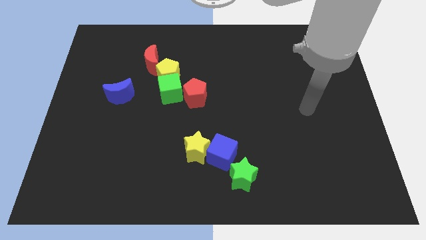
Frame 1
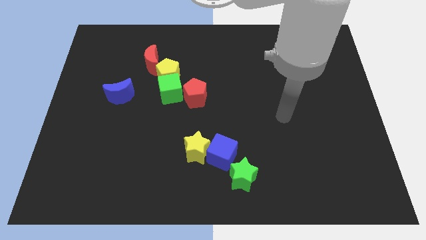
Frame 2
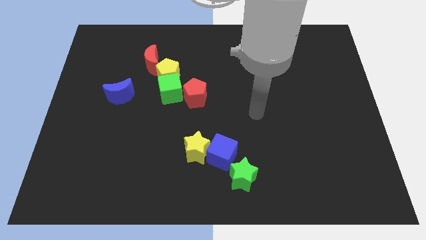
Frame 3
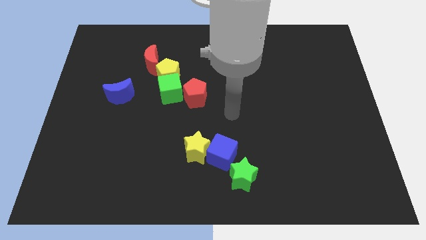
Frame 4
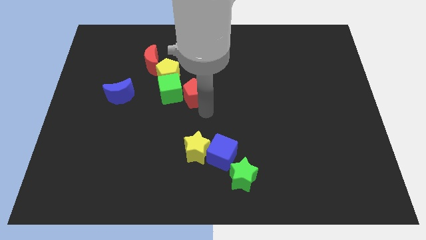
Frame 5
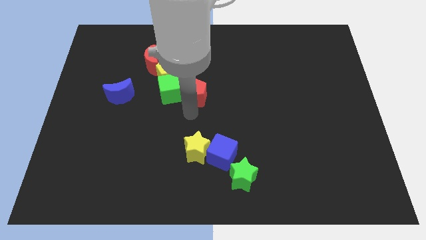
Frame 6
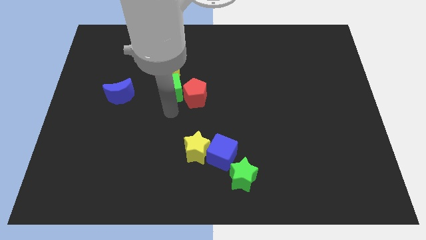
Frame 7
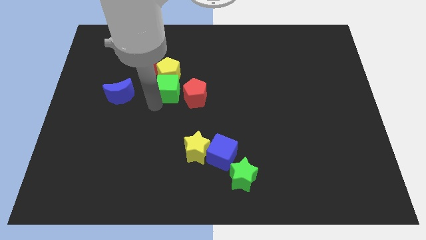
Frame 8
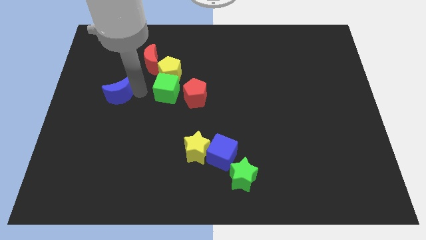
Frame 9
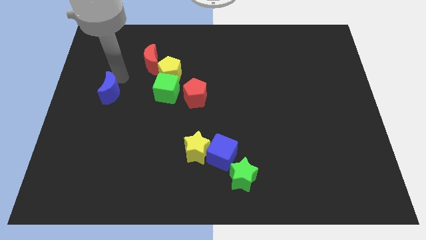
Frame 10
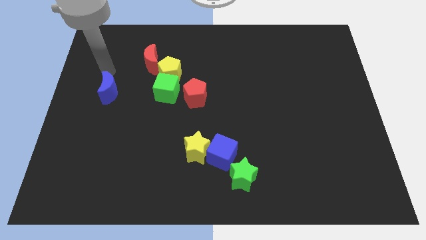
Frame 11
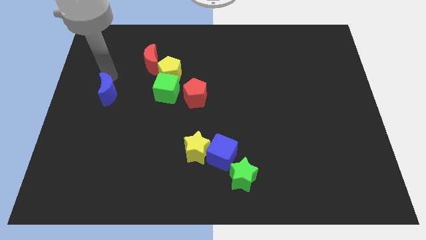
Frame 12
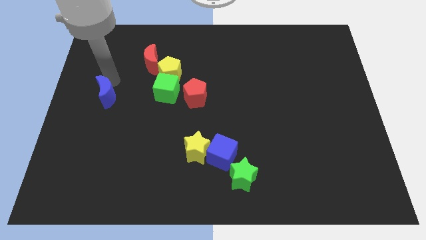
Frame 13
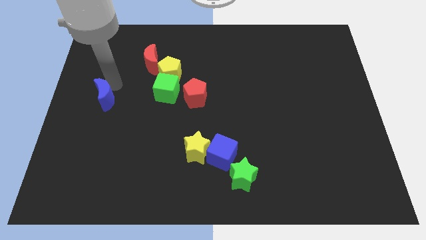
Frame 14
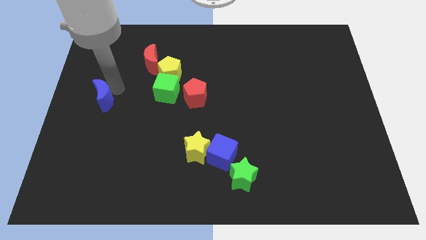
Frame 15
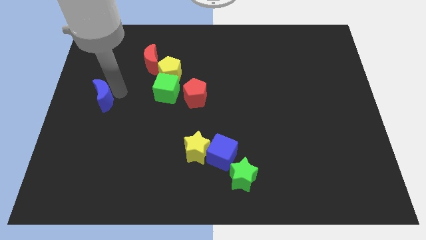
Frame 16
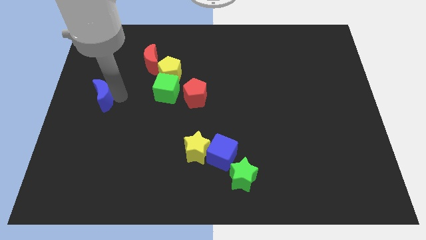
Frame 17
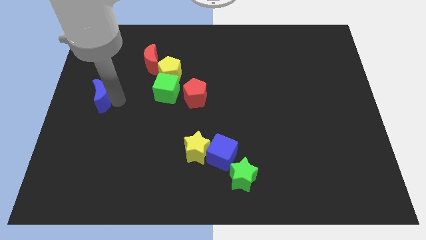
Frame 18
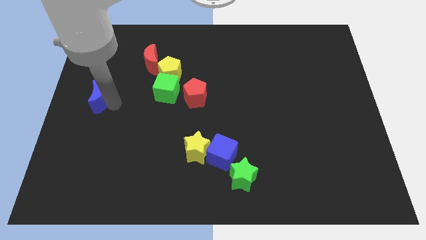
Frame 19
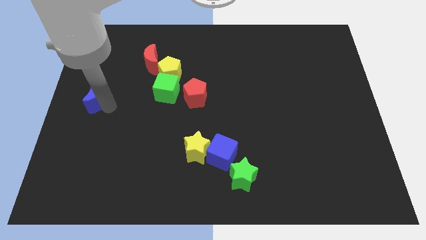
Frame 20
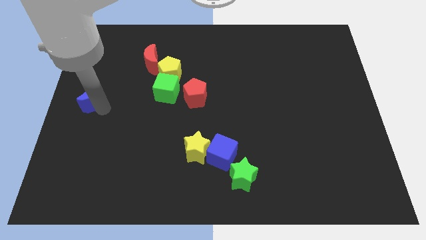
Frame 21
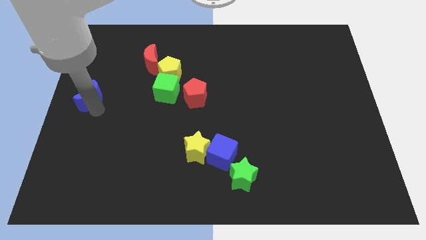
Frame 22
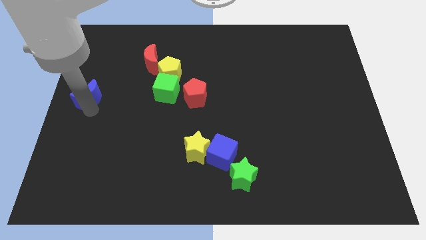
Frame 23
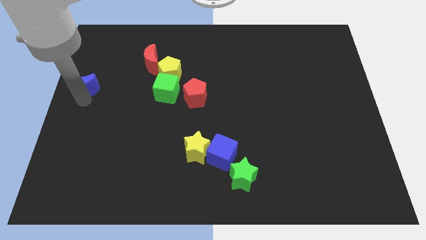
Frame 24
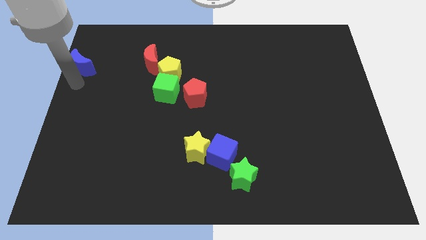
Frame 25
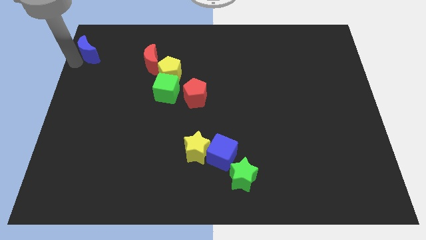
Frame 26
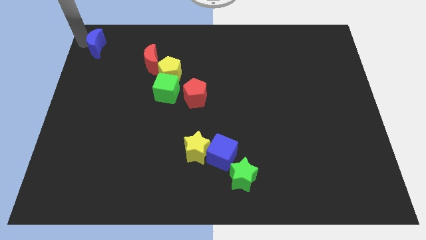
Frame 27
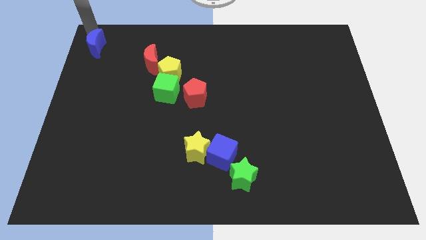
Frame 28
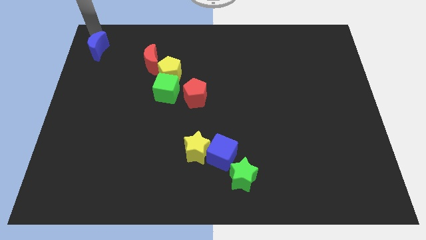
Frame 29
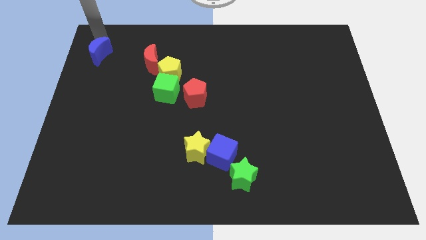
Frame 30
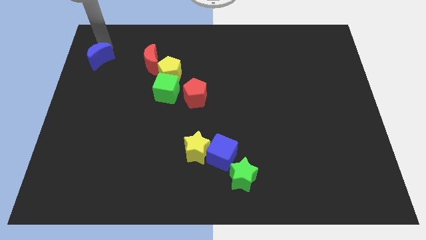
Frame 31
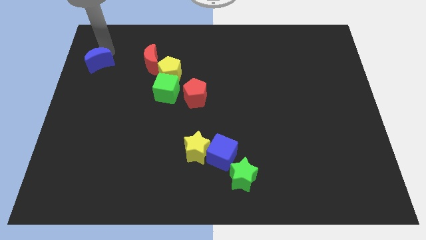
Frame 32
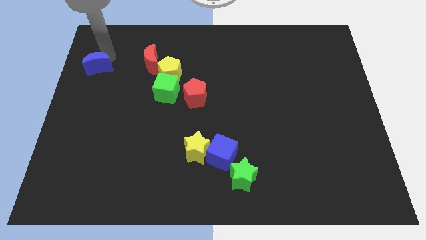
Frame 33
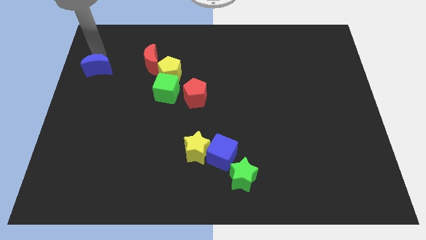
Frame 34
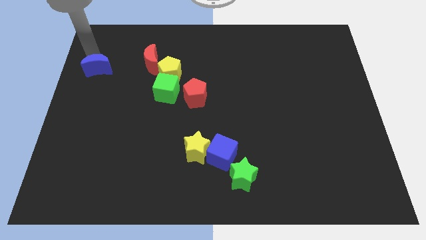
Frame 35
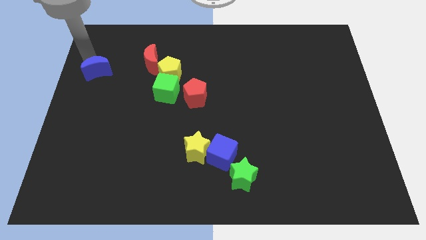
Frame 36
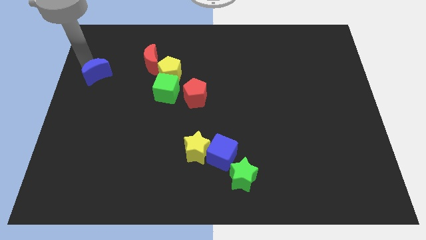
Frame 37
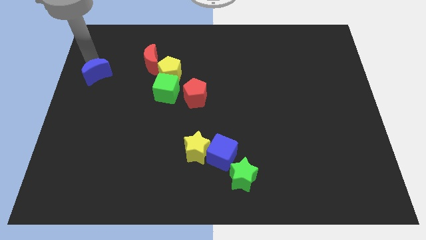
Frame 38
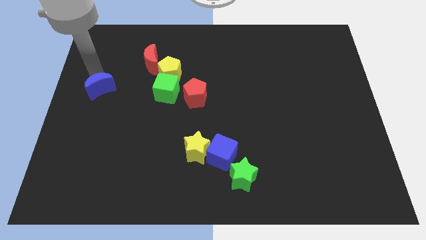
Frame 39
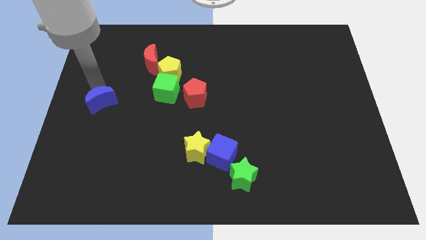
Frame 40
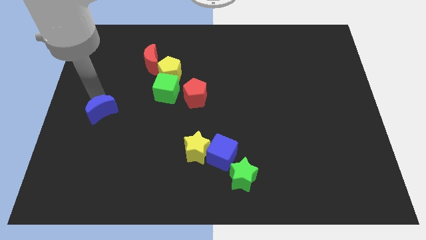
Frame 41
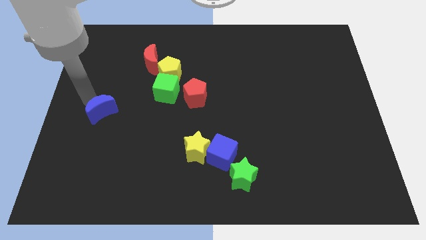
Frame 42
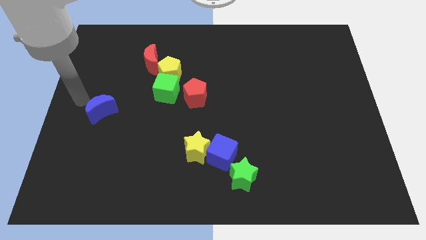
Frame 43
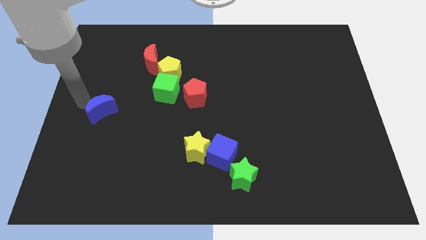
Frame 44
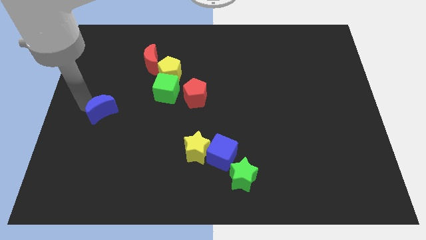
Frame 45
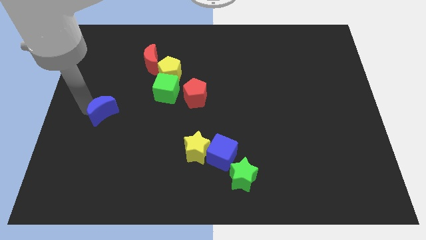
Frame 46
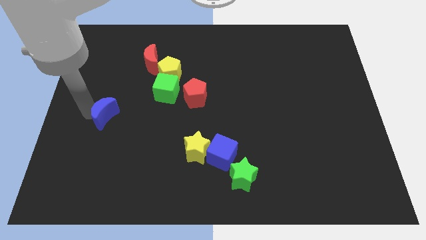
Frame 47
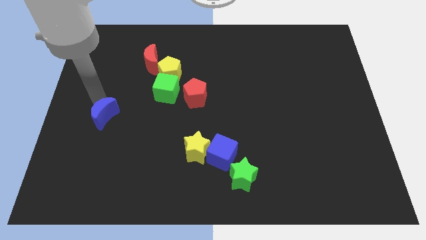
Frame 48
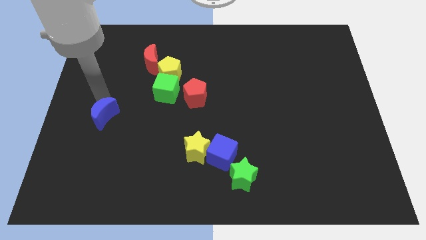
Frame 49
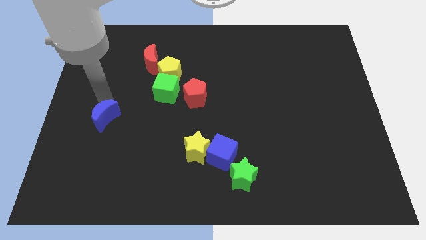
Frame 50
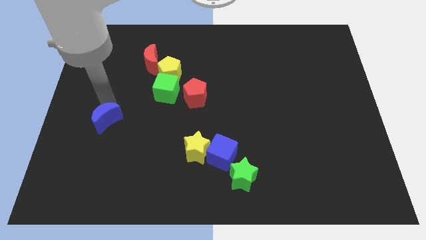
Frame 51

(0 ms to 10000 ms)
move the blue moon down a bit

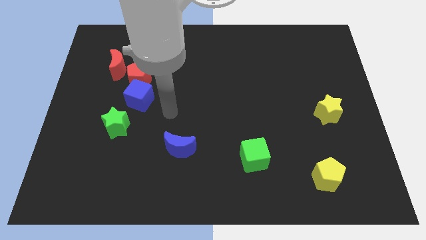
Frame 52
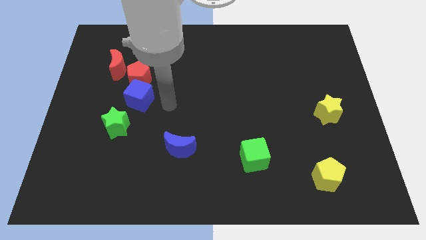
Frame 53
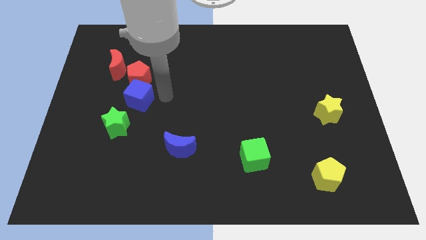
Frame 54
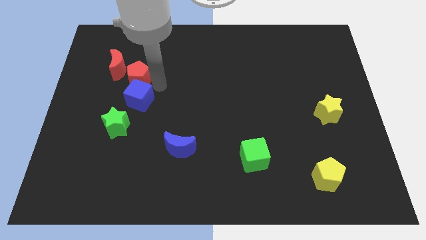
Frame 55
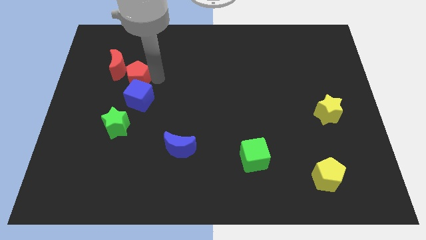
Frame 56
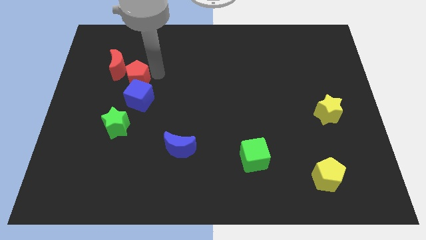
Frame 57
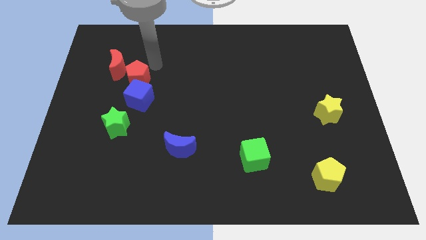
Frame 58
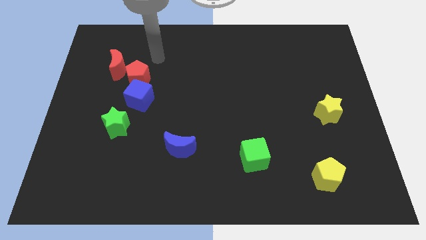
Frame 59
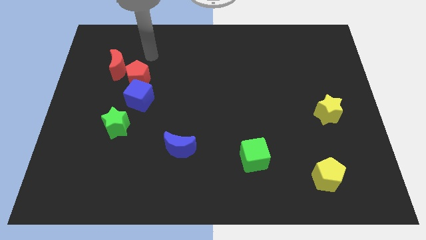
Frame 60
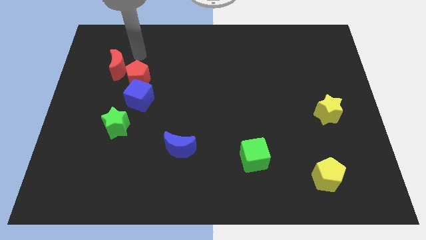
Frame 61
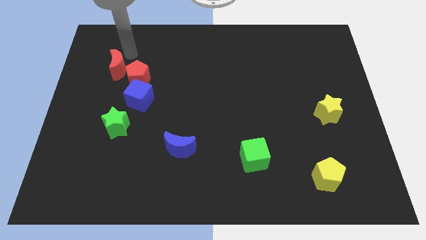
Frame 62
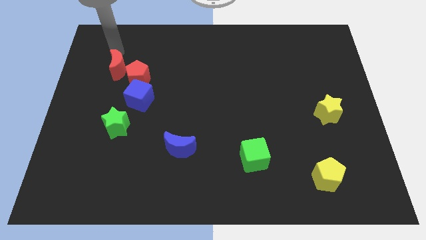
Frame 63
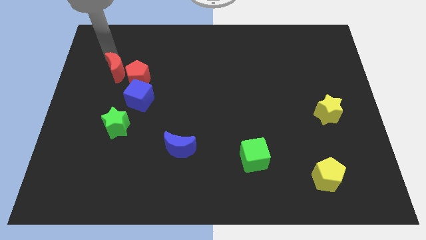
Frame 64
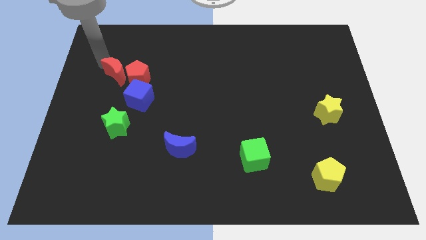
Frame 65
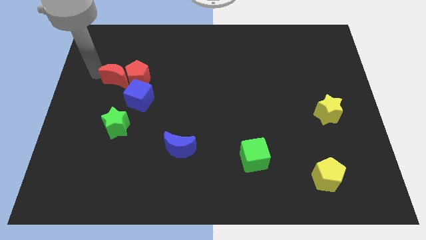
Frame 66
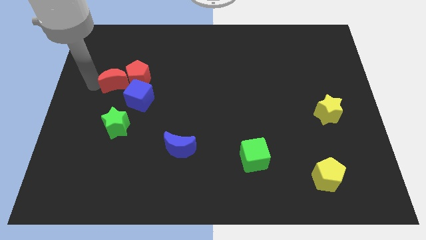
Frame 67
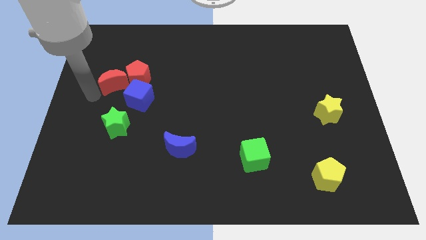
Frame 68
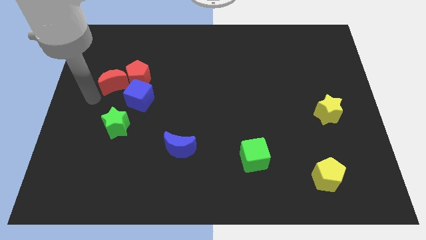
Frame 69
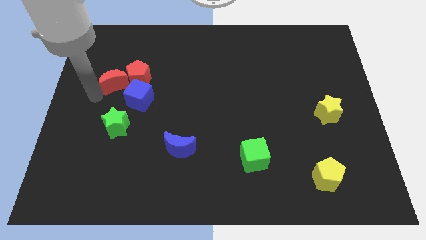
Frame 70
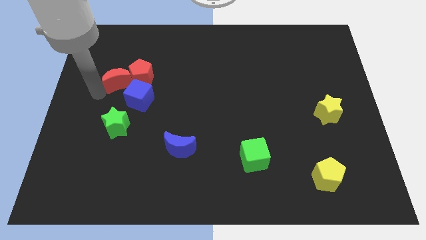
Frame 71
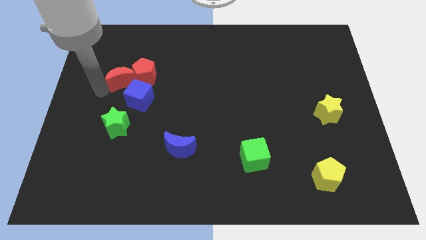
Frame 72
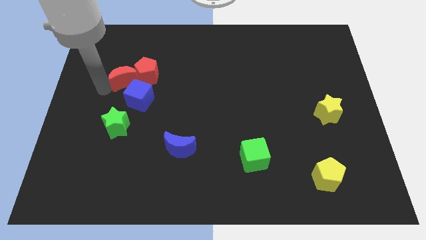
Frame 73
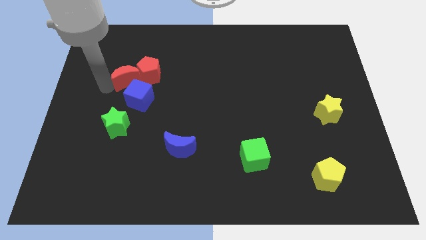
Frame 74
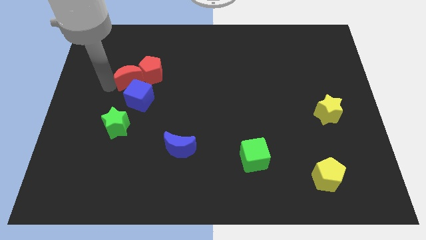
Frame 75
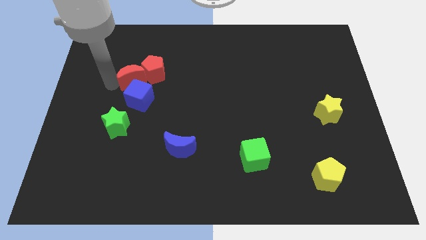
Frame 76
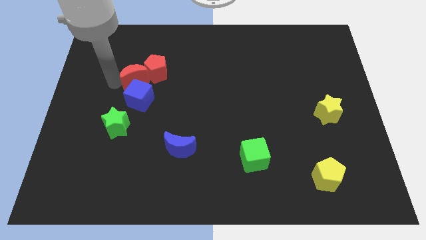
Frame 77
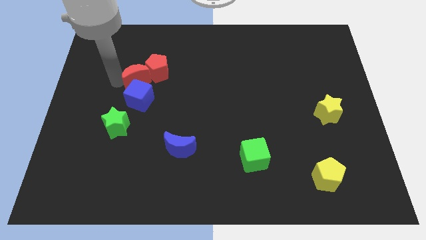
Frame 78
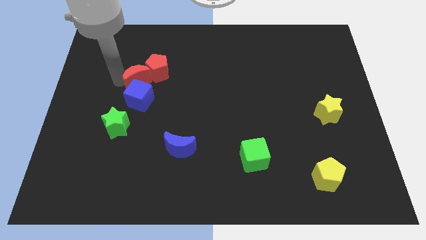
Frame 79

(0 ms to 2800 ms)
slide the red moon slightly downwards and then to the right
